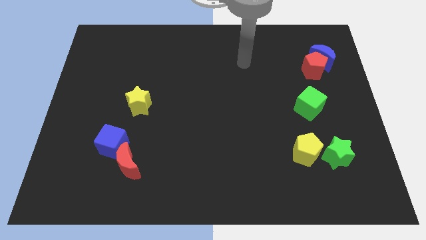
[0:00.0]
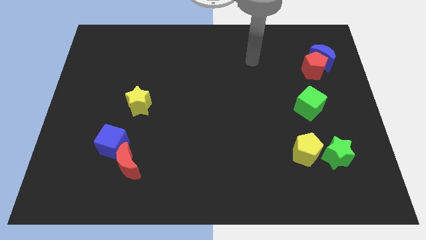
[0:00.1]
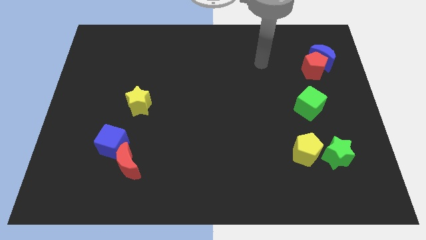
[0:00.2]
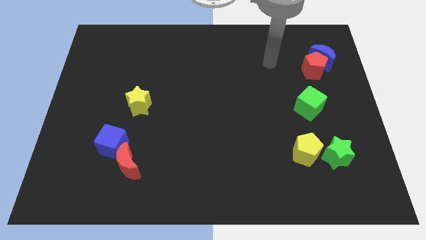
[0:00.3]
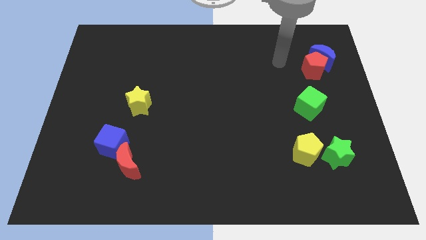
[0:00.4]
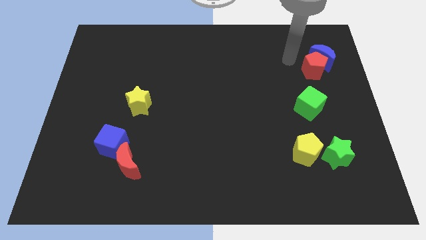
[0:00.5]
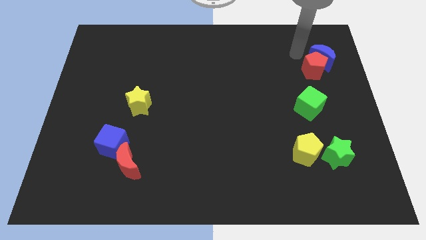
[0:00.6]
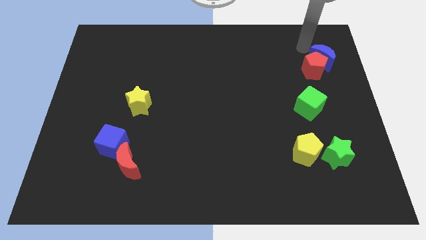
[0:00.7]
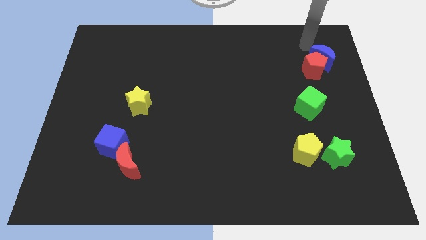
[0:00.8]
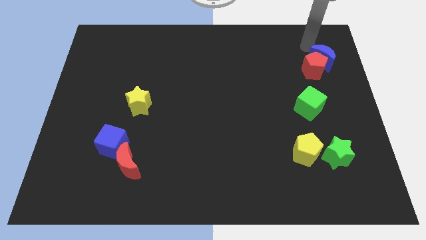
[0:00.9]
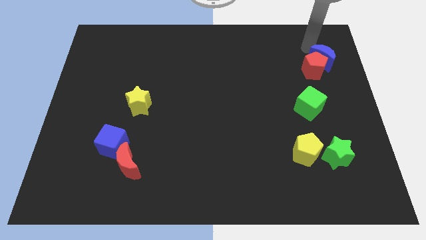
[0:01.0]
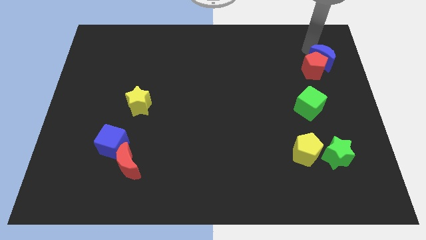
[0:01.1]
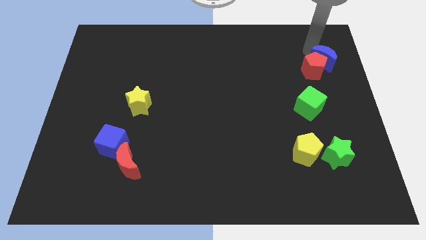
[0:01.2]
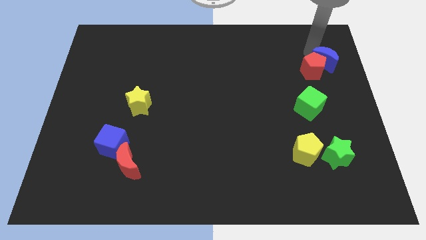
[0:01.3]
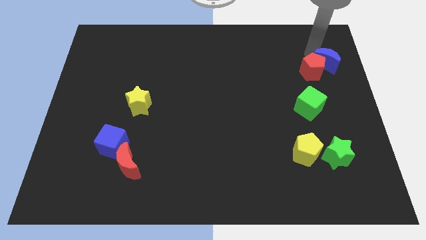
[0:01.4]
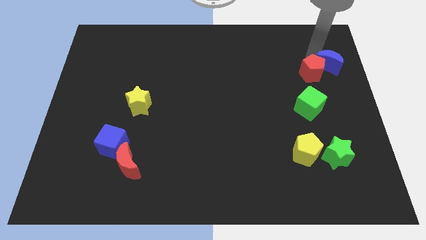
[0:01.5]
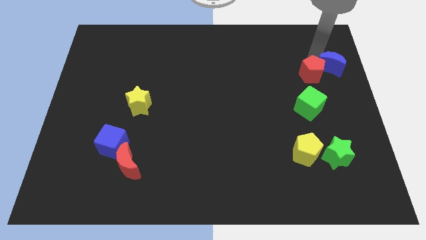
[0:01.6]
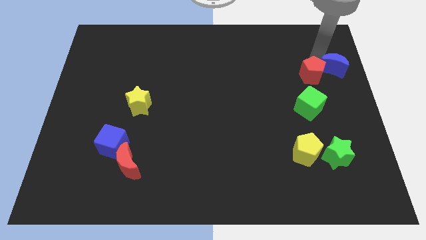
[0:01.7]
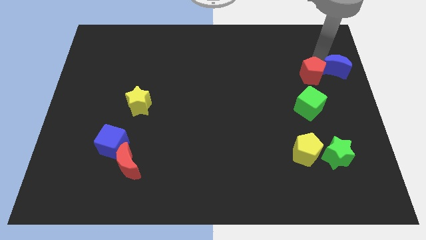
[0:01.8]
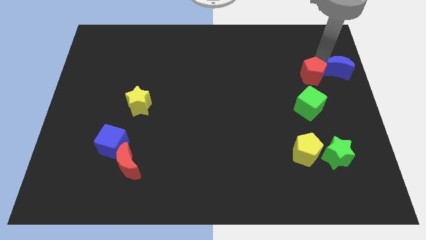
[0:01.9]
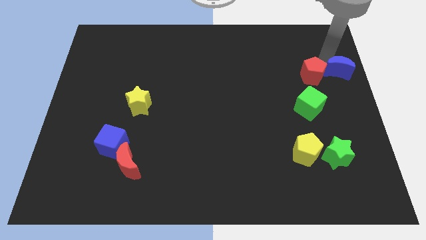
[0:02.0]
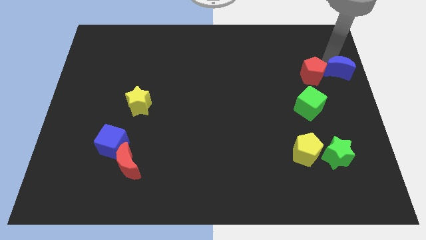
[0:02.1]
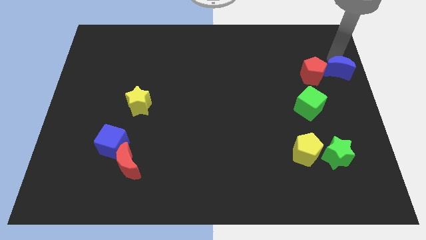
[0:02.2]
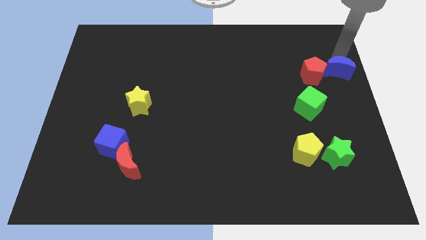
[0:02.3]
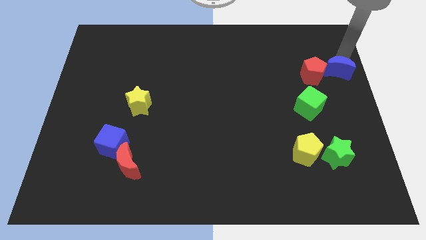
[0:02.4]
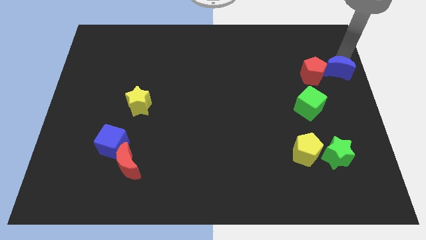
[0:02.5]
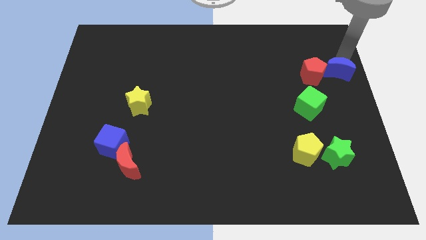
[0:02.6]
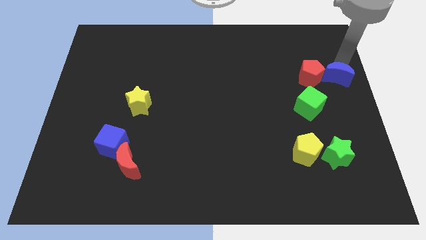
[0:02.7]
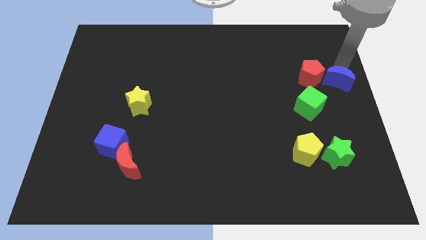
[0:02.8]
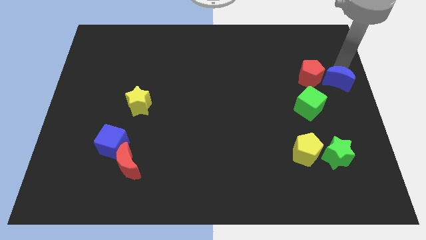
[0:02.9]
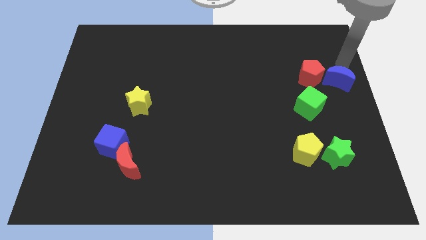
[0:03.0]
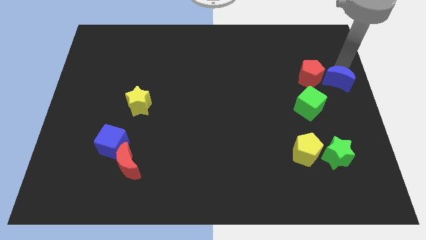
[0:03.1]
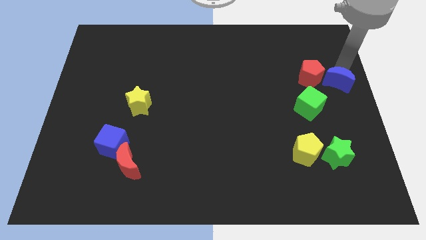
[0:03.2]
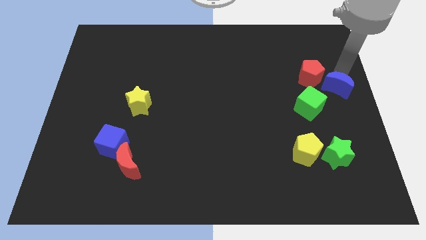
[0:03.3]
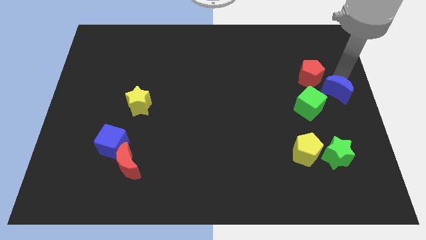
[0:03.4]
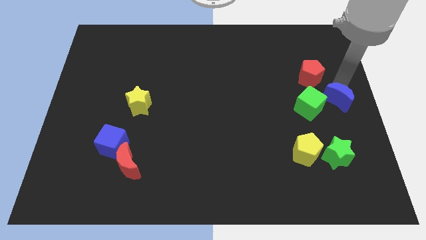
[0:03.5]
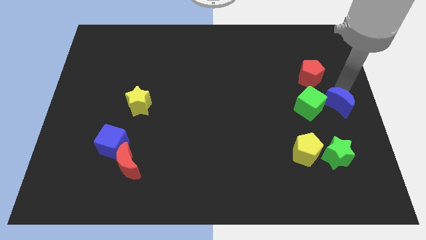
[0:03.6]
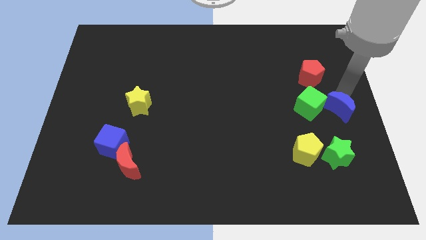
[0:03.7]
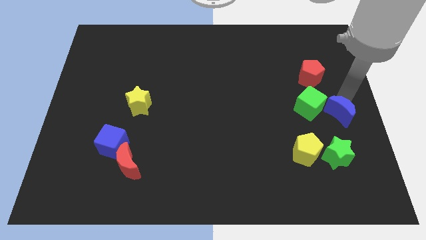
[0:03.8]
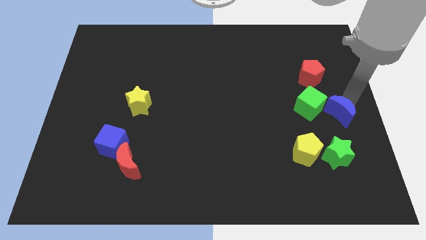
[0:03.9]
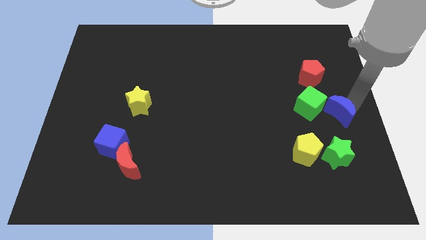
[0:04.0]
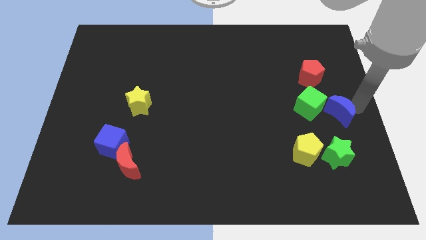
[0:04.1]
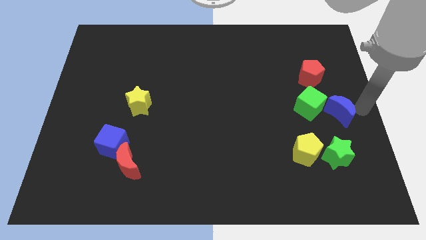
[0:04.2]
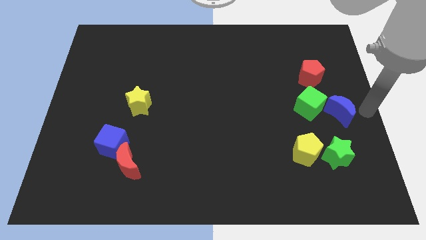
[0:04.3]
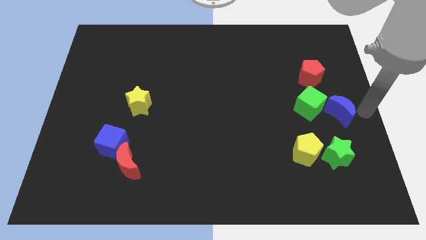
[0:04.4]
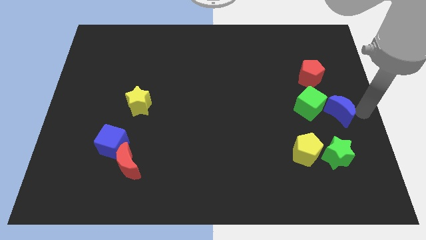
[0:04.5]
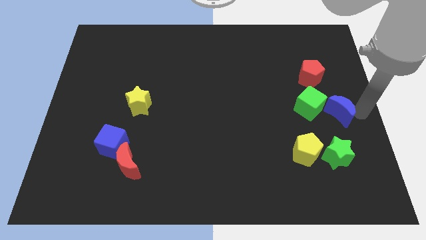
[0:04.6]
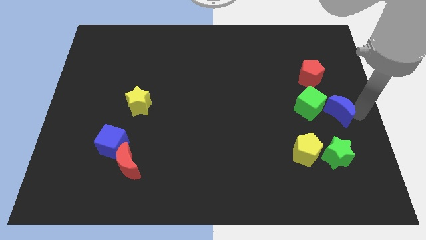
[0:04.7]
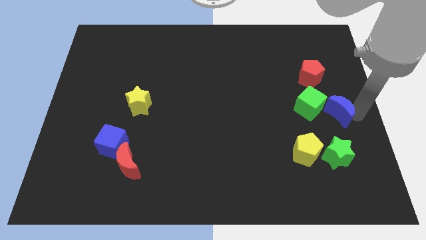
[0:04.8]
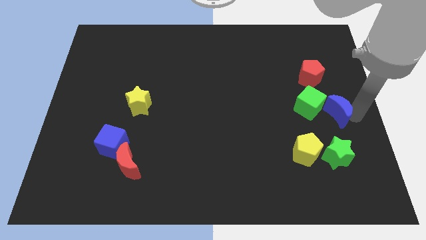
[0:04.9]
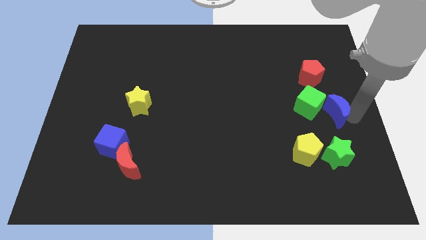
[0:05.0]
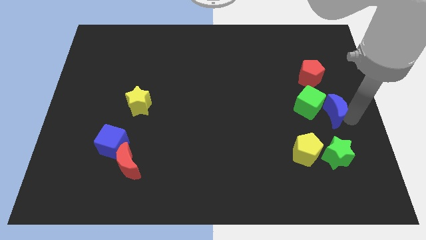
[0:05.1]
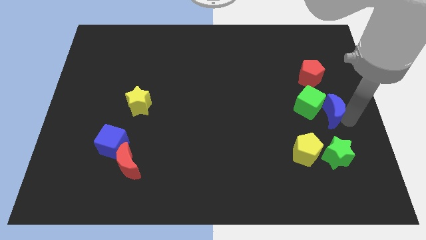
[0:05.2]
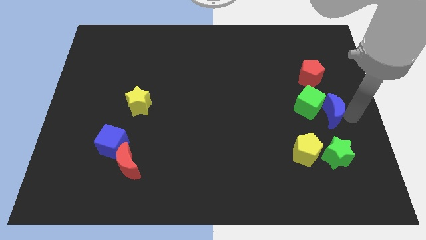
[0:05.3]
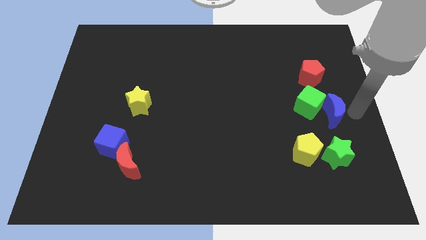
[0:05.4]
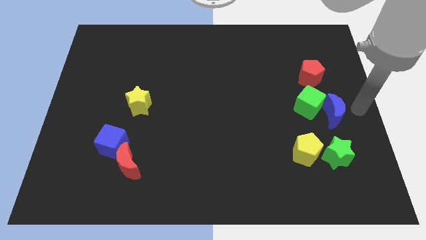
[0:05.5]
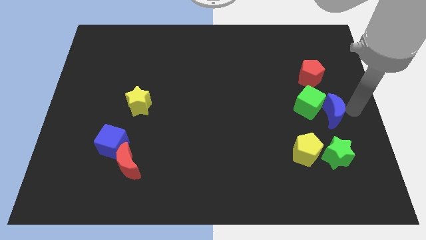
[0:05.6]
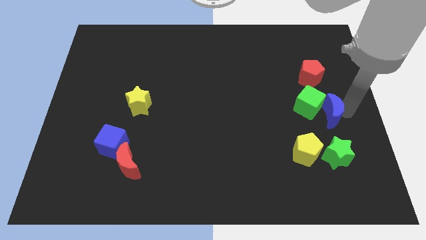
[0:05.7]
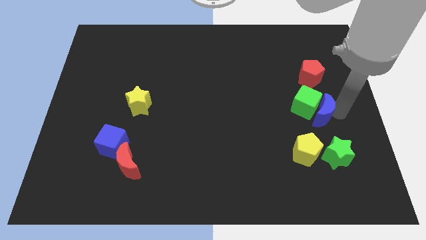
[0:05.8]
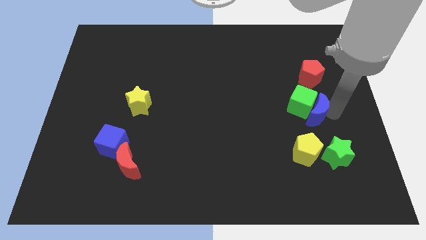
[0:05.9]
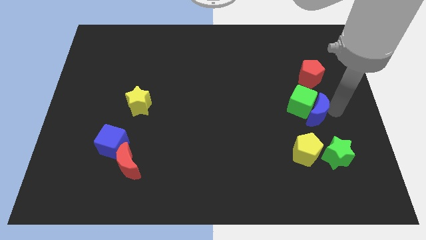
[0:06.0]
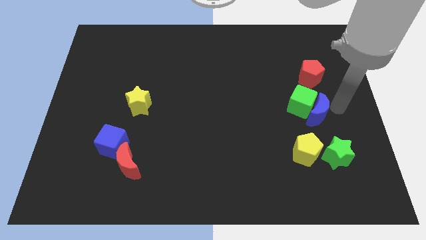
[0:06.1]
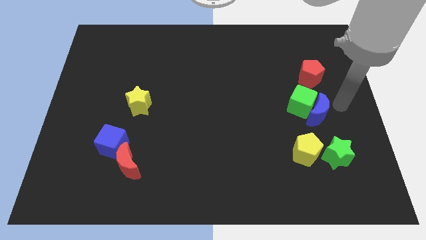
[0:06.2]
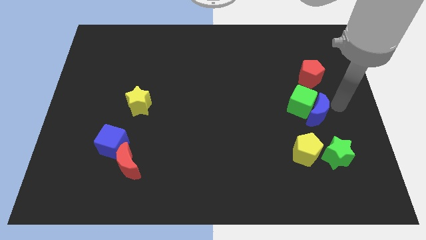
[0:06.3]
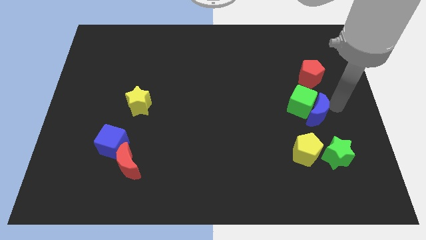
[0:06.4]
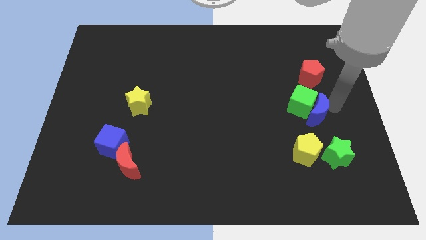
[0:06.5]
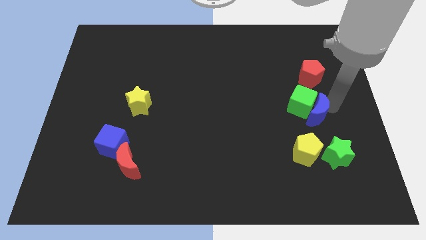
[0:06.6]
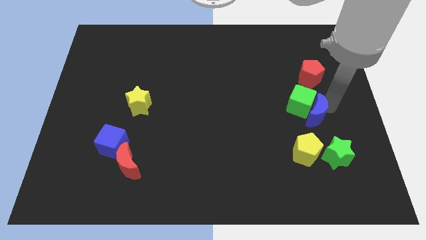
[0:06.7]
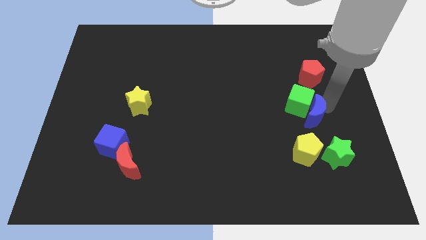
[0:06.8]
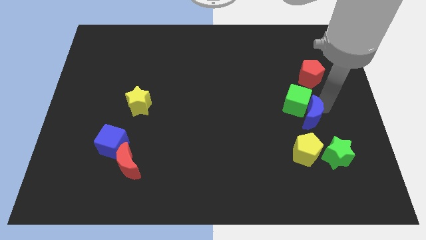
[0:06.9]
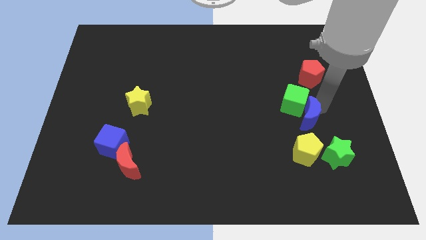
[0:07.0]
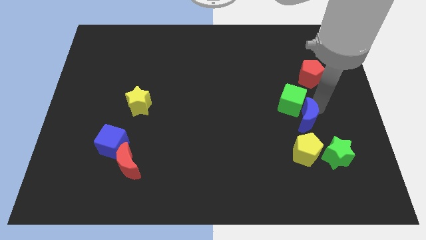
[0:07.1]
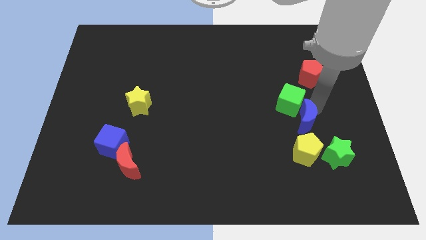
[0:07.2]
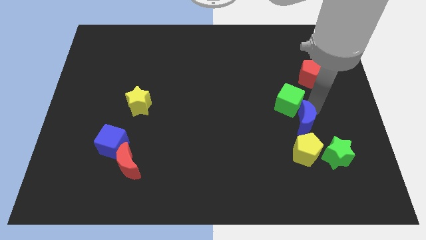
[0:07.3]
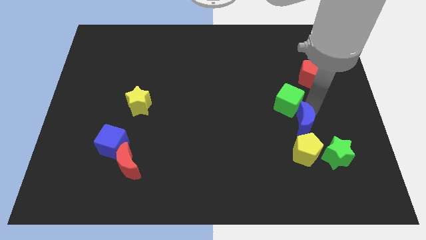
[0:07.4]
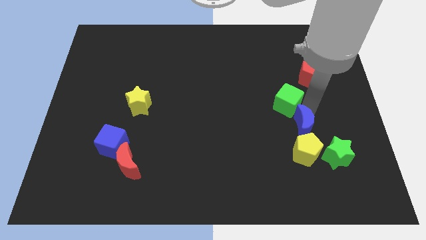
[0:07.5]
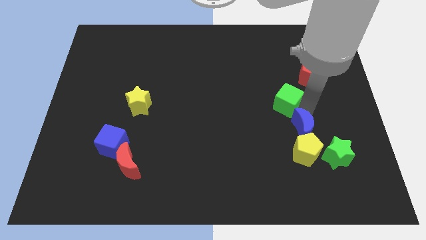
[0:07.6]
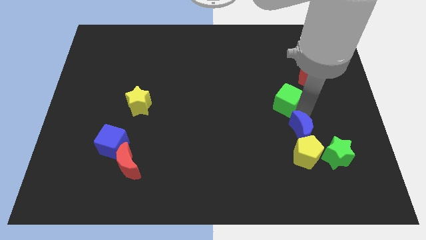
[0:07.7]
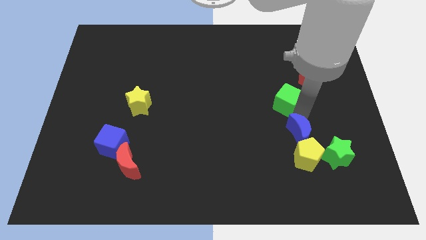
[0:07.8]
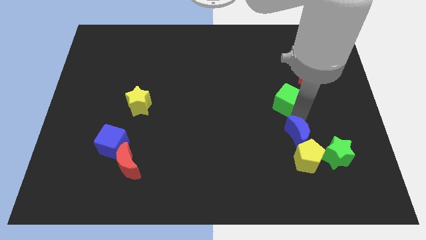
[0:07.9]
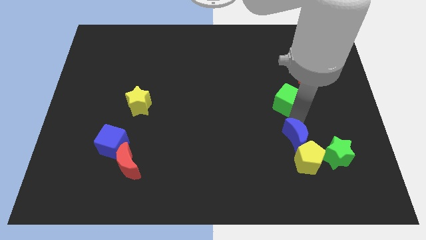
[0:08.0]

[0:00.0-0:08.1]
push the blue moon just left of the green star
